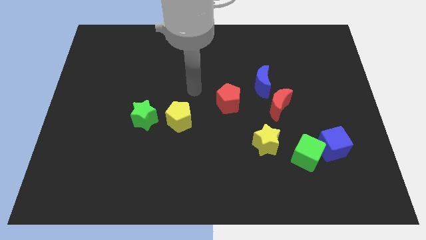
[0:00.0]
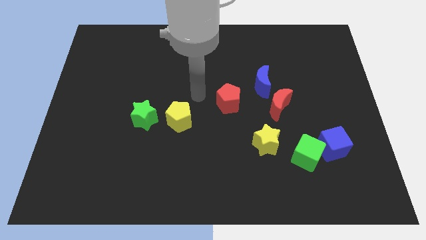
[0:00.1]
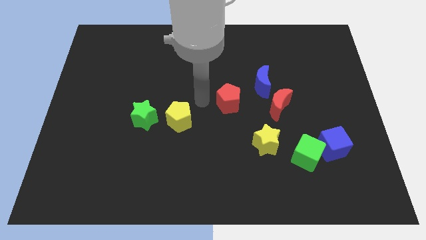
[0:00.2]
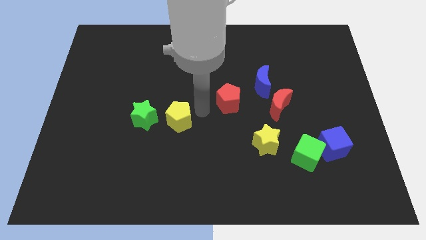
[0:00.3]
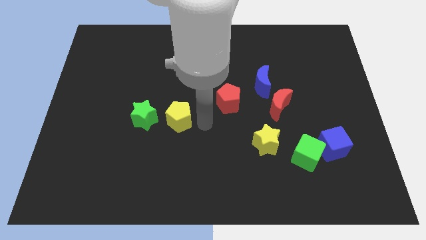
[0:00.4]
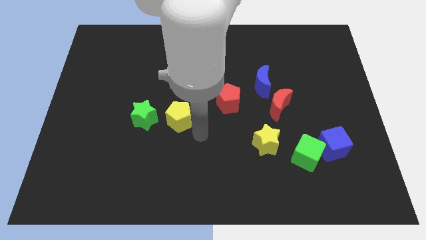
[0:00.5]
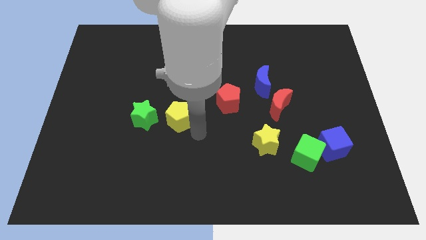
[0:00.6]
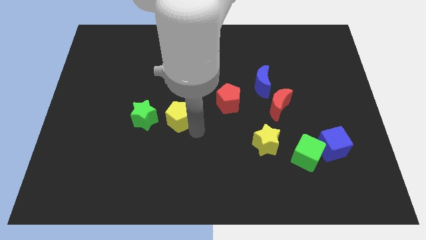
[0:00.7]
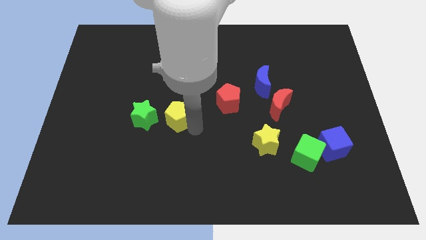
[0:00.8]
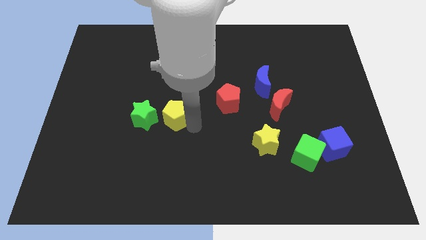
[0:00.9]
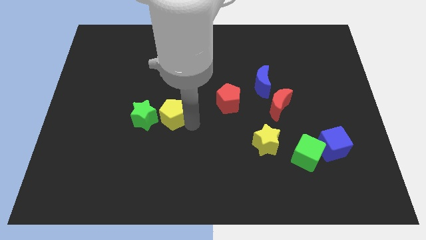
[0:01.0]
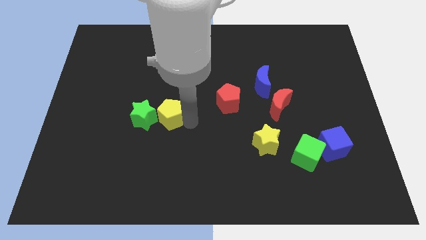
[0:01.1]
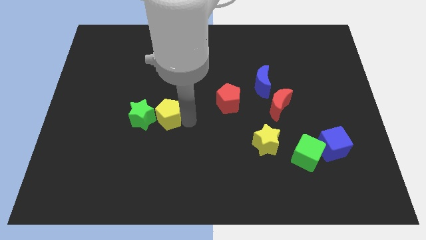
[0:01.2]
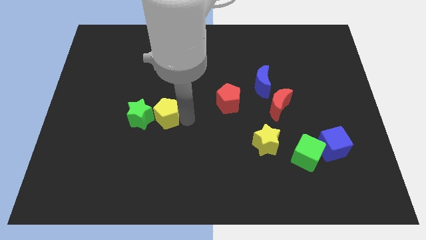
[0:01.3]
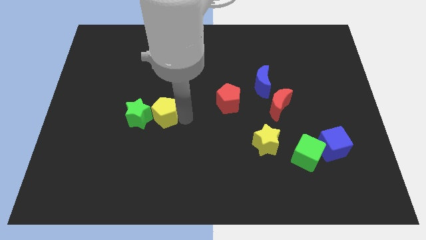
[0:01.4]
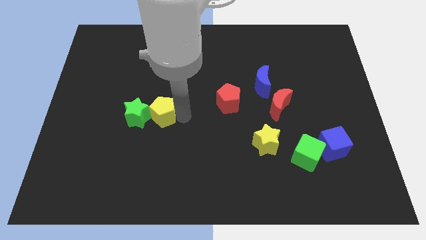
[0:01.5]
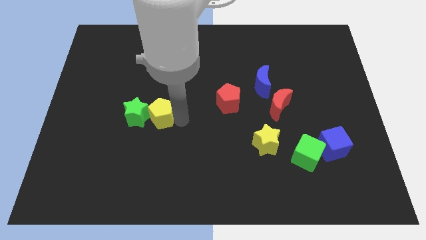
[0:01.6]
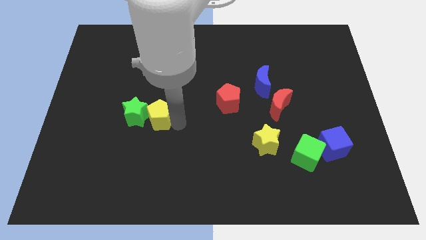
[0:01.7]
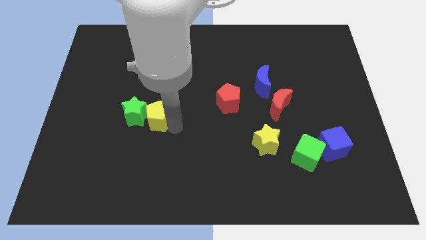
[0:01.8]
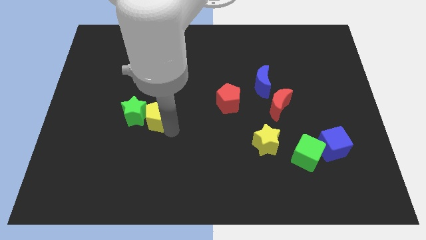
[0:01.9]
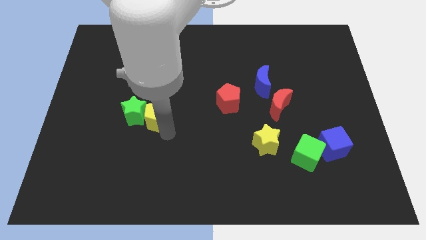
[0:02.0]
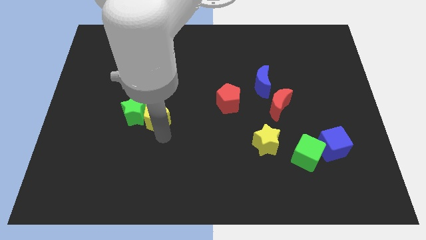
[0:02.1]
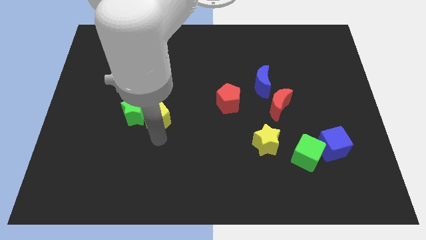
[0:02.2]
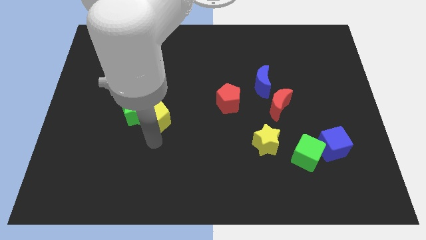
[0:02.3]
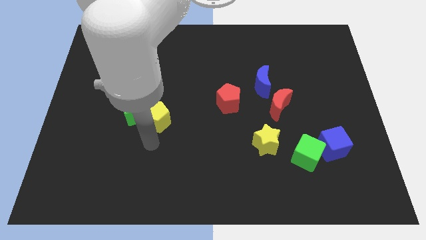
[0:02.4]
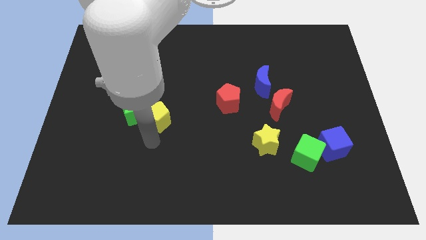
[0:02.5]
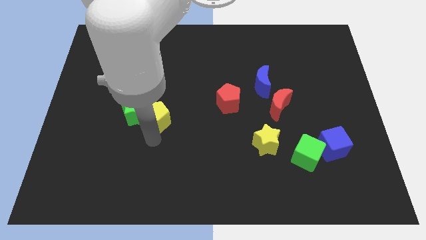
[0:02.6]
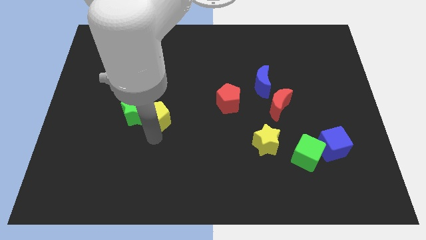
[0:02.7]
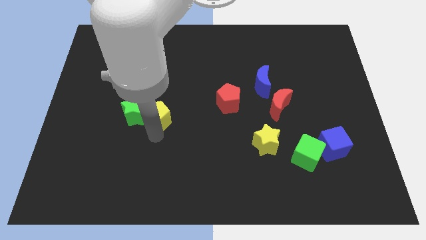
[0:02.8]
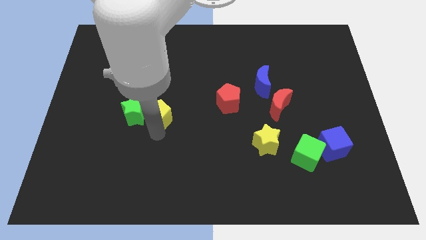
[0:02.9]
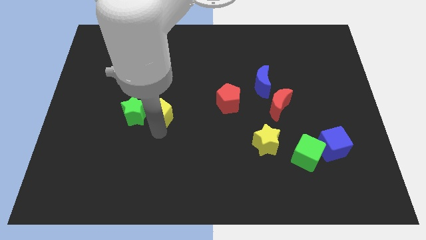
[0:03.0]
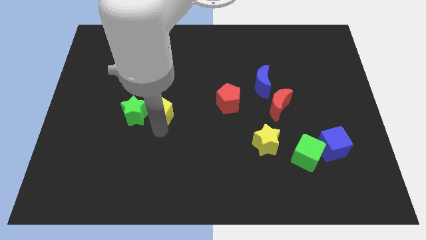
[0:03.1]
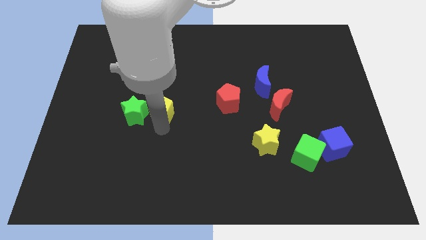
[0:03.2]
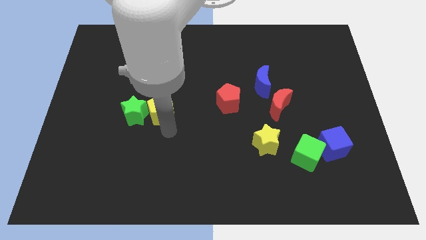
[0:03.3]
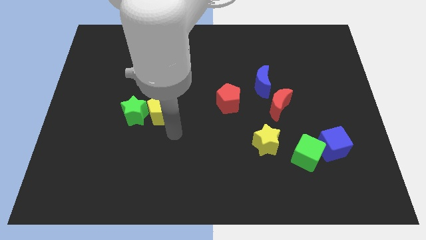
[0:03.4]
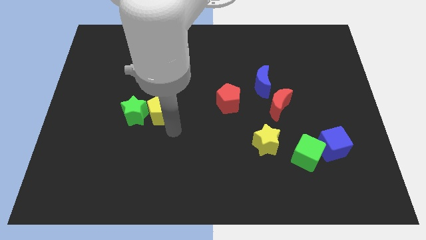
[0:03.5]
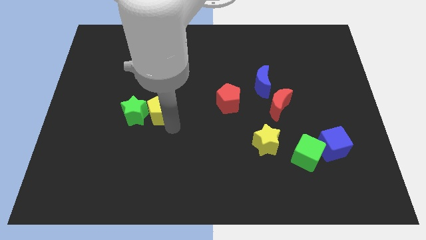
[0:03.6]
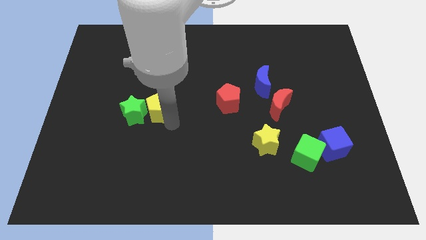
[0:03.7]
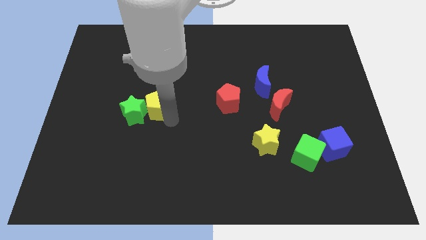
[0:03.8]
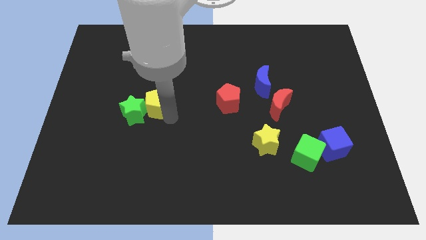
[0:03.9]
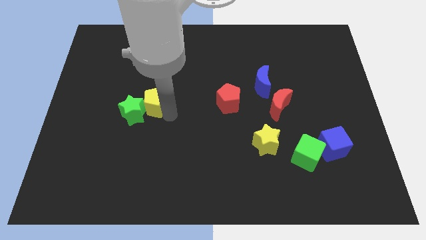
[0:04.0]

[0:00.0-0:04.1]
push the yellow pentagon up and left a little

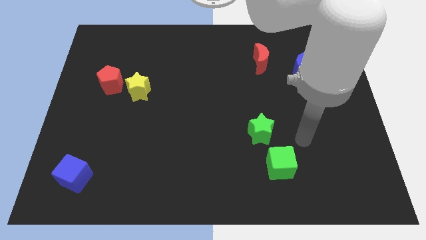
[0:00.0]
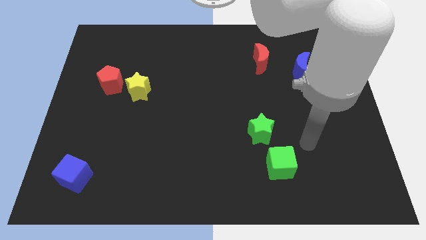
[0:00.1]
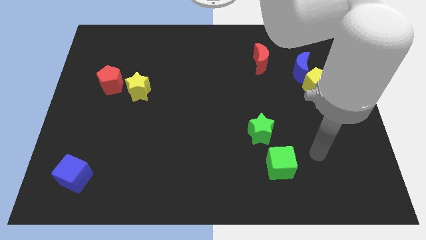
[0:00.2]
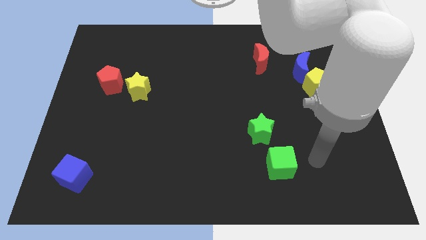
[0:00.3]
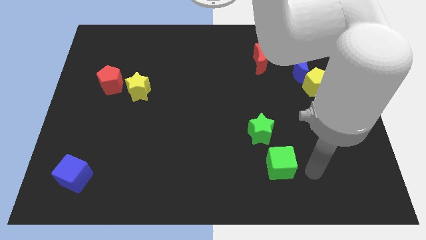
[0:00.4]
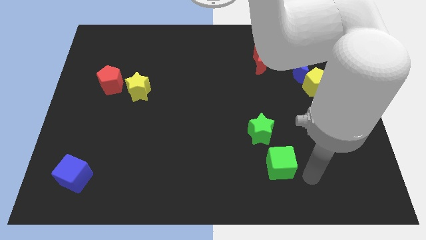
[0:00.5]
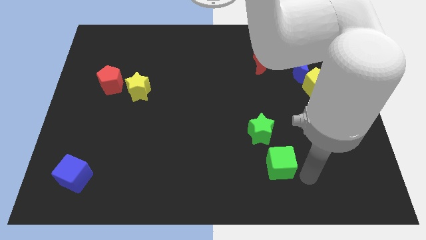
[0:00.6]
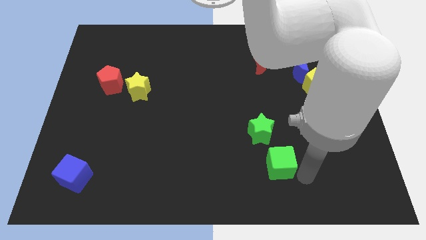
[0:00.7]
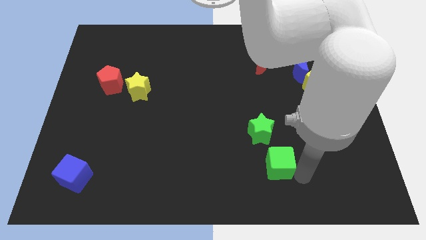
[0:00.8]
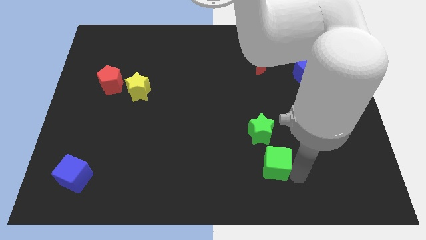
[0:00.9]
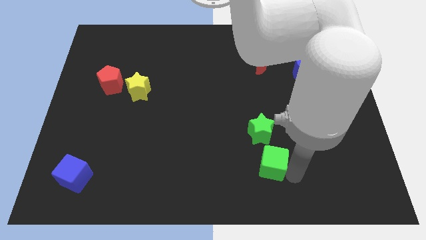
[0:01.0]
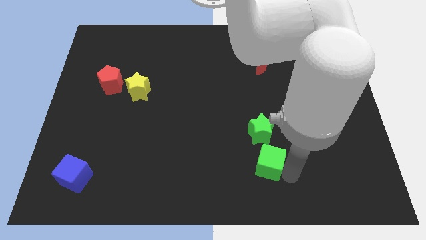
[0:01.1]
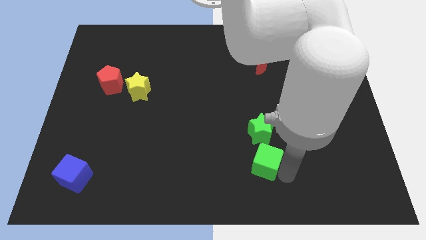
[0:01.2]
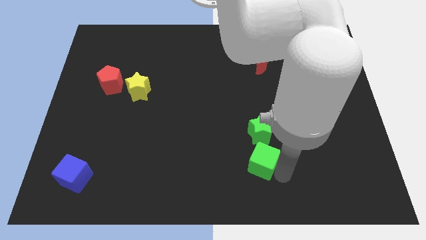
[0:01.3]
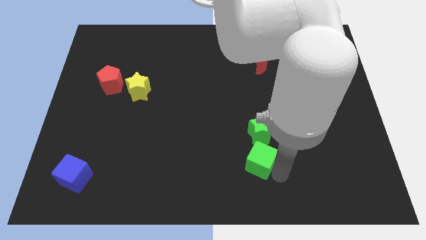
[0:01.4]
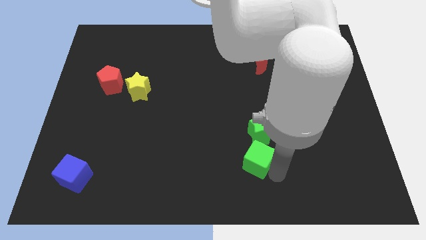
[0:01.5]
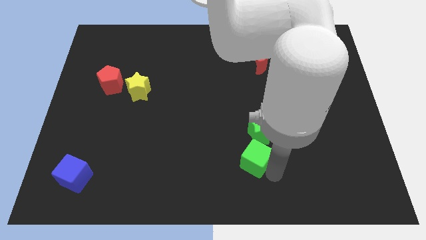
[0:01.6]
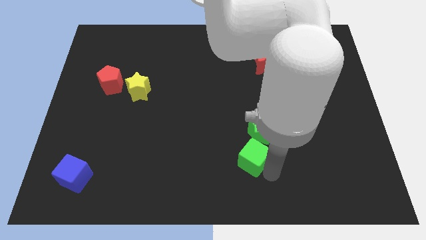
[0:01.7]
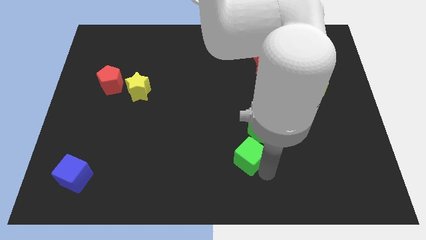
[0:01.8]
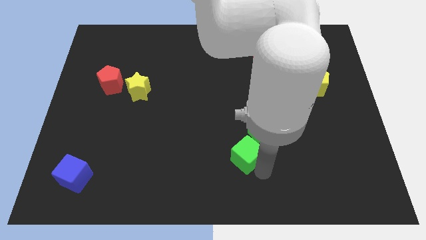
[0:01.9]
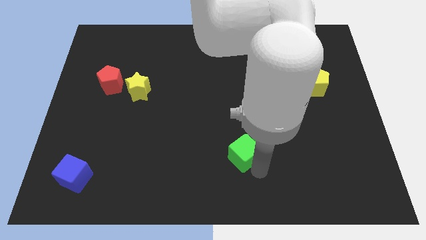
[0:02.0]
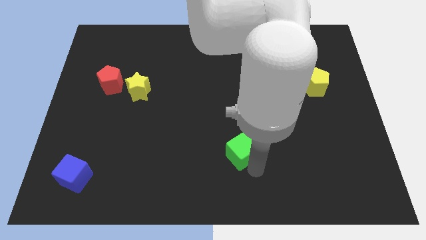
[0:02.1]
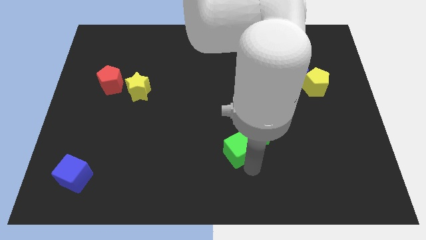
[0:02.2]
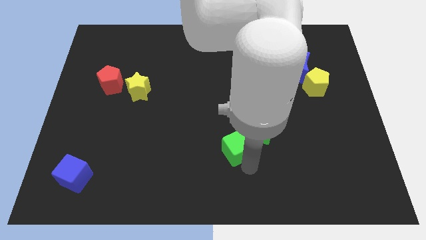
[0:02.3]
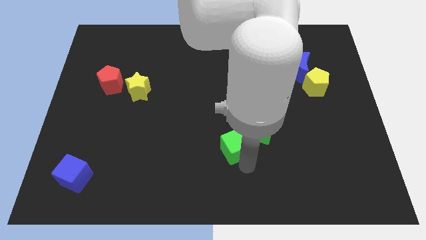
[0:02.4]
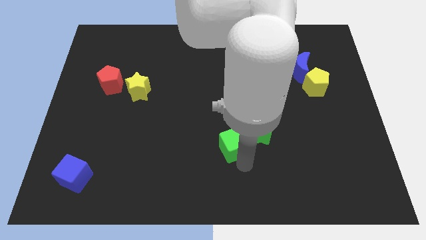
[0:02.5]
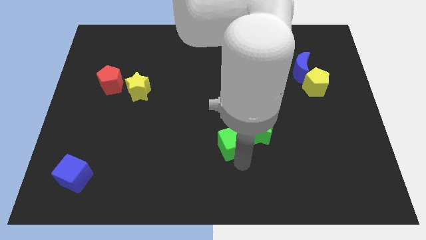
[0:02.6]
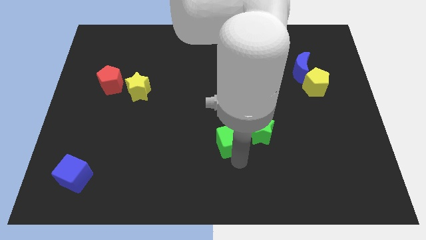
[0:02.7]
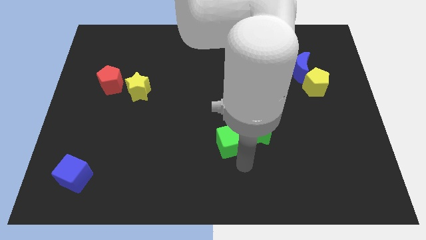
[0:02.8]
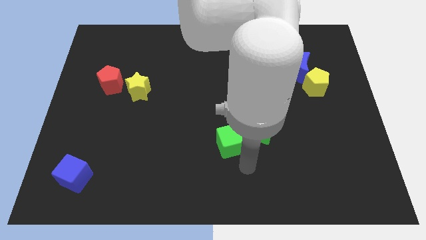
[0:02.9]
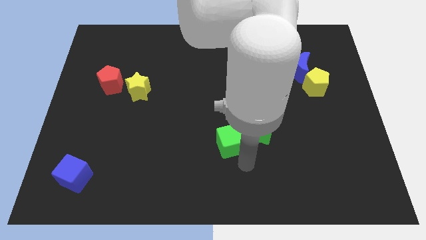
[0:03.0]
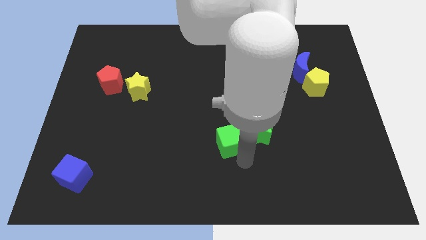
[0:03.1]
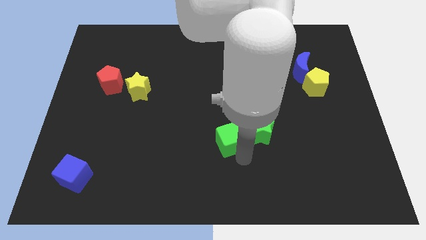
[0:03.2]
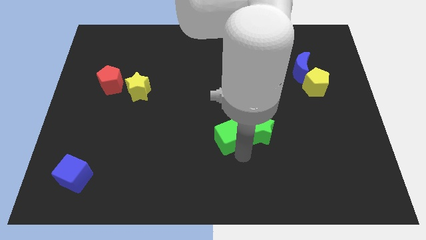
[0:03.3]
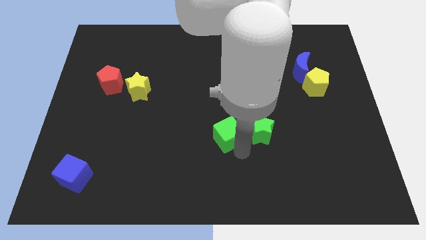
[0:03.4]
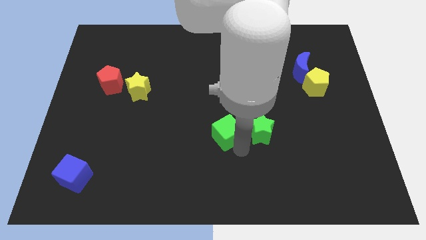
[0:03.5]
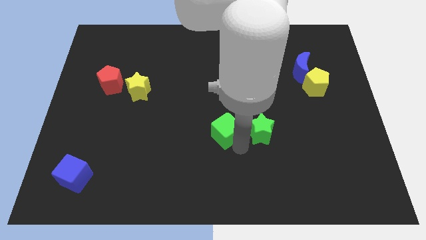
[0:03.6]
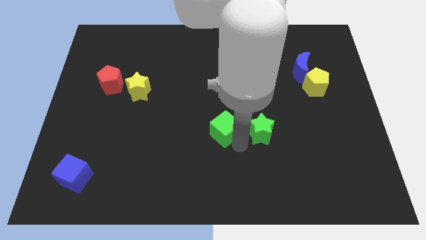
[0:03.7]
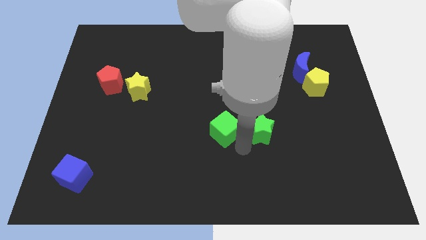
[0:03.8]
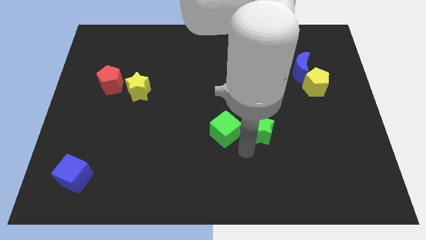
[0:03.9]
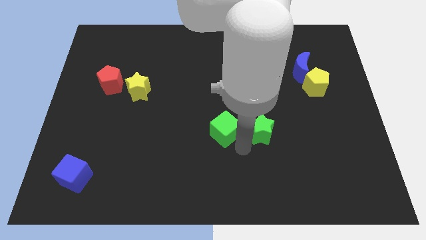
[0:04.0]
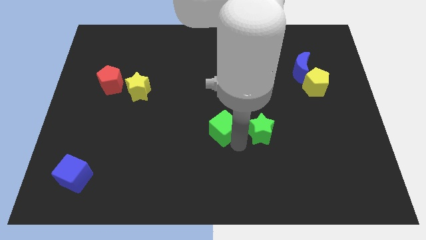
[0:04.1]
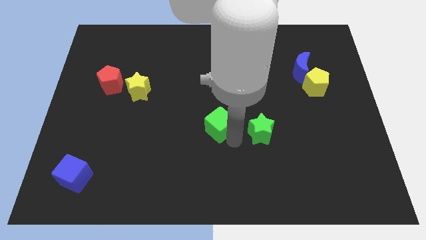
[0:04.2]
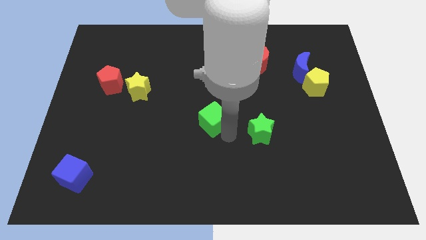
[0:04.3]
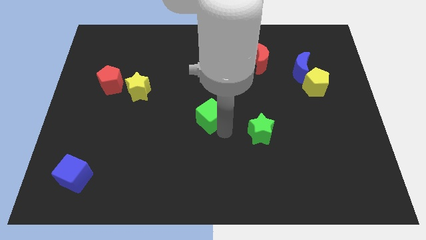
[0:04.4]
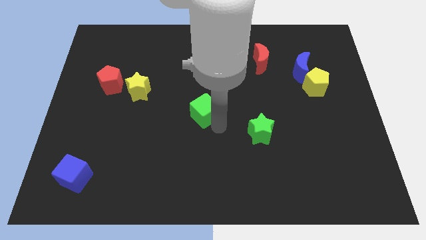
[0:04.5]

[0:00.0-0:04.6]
push the green cube upwards and left
